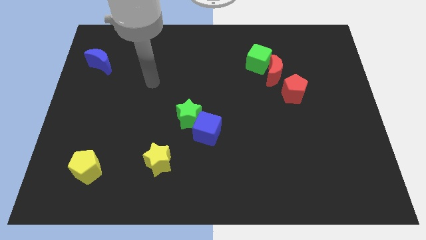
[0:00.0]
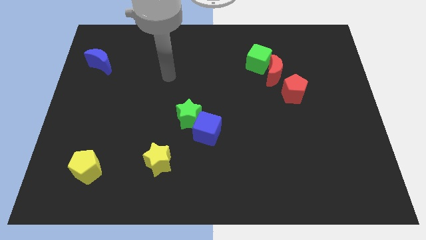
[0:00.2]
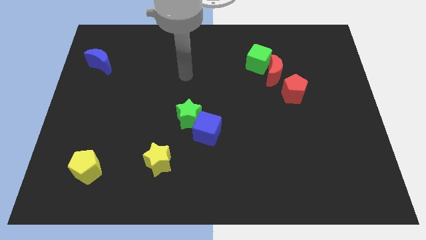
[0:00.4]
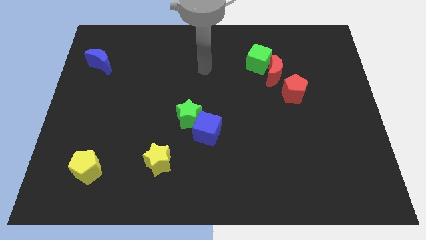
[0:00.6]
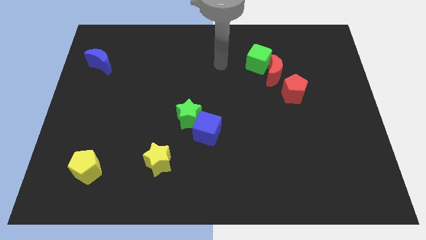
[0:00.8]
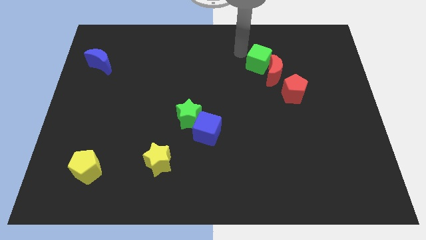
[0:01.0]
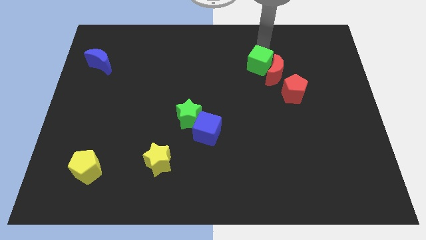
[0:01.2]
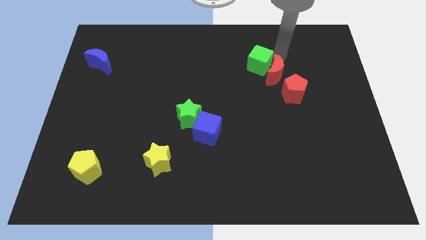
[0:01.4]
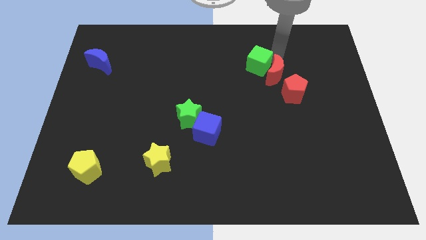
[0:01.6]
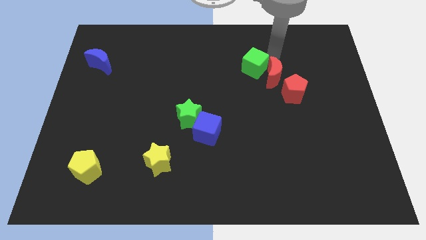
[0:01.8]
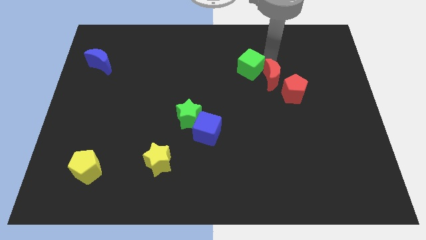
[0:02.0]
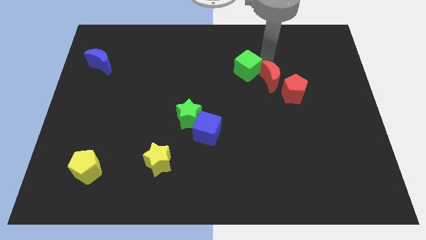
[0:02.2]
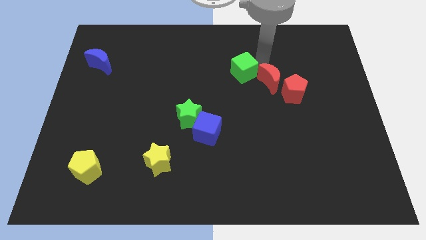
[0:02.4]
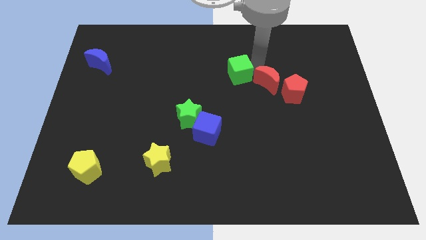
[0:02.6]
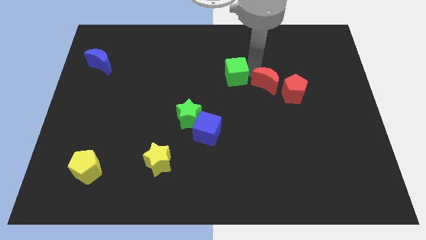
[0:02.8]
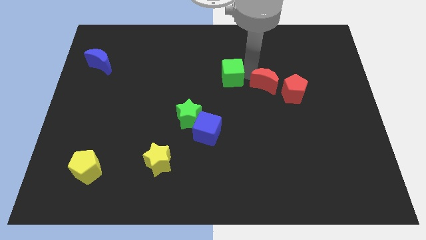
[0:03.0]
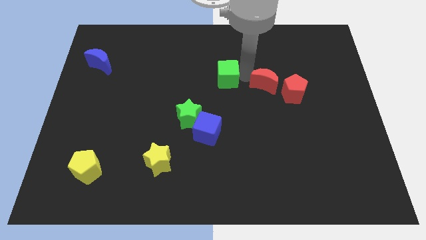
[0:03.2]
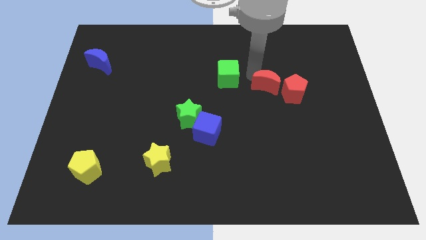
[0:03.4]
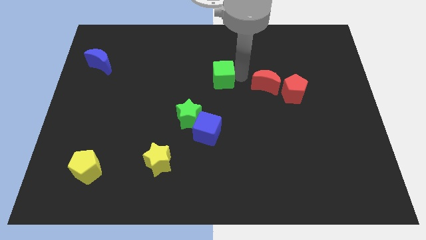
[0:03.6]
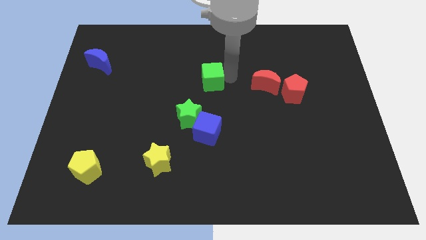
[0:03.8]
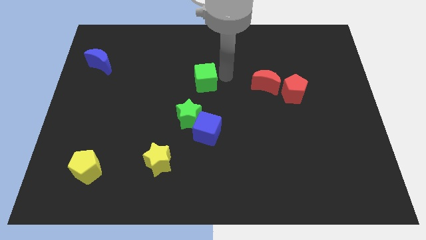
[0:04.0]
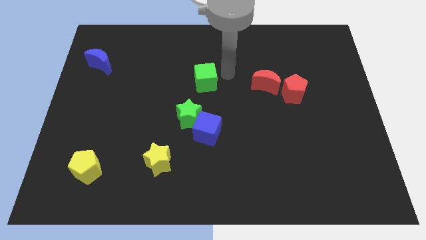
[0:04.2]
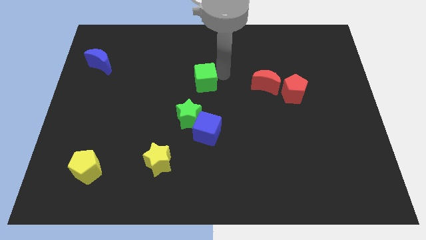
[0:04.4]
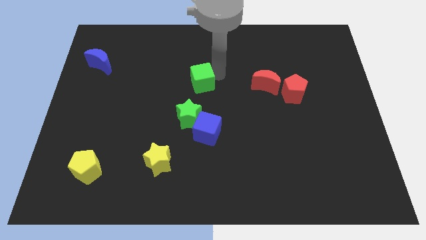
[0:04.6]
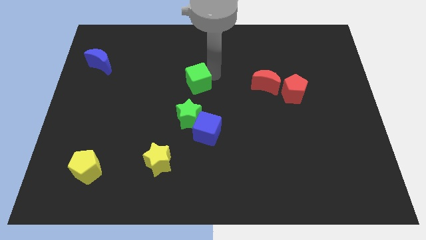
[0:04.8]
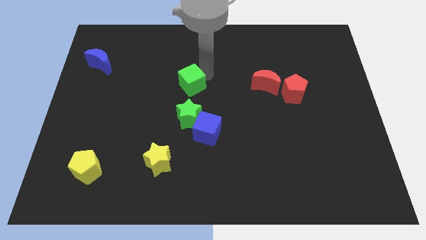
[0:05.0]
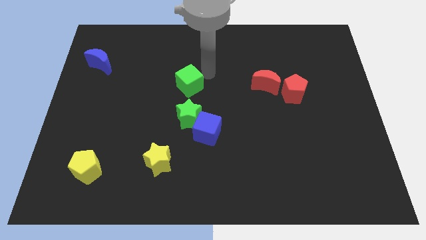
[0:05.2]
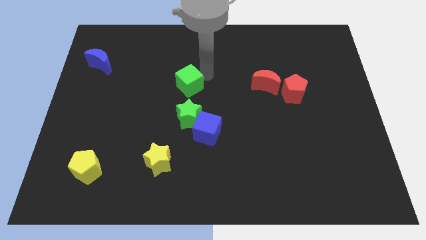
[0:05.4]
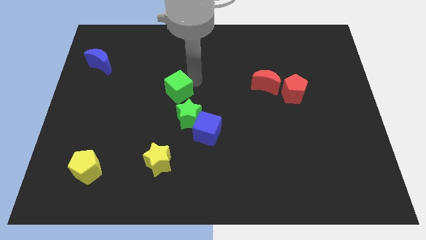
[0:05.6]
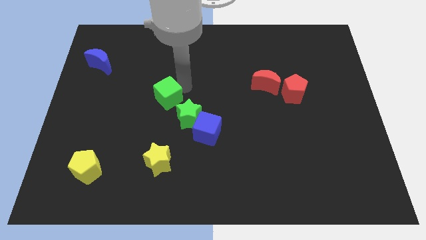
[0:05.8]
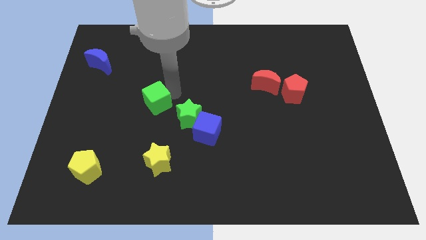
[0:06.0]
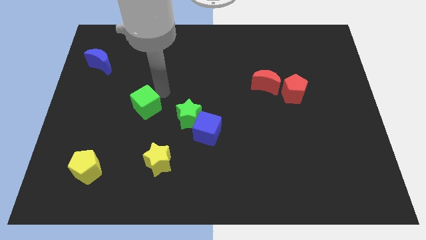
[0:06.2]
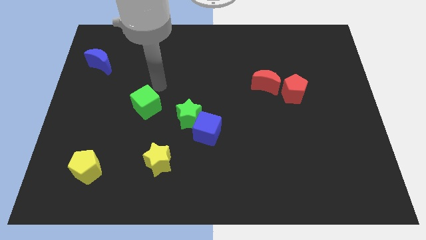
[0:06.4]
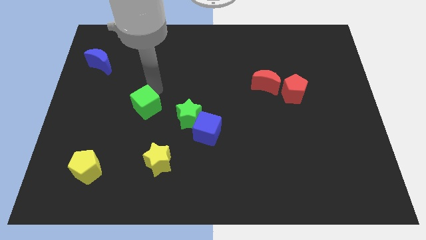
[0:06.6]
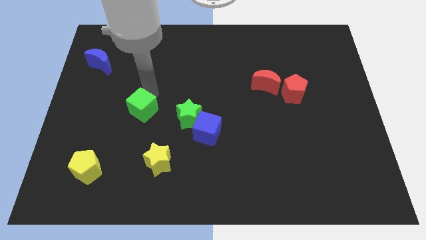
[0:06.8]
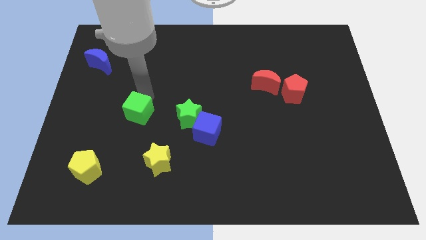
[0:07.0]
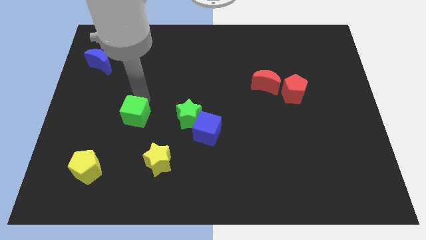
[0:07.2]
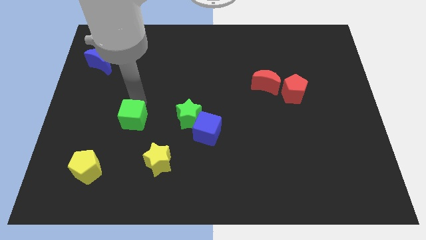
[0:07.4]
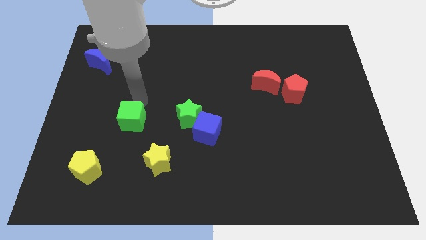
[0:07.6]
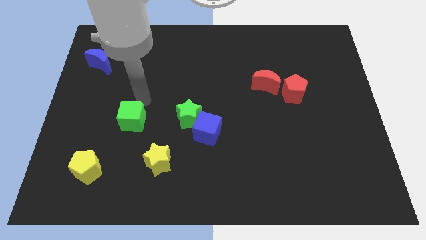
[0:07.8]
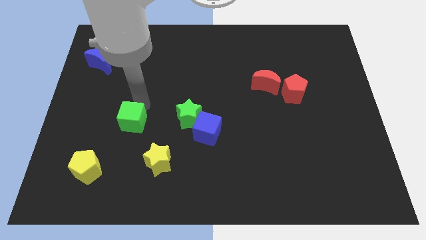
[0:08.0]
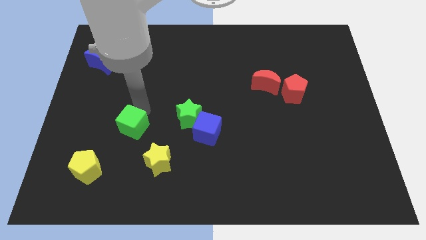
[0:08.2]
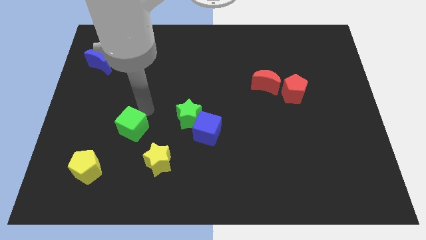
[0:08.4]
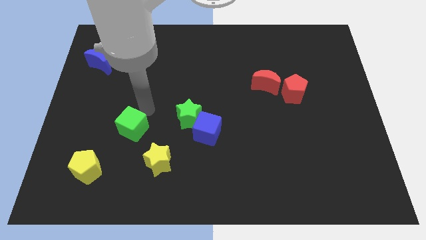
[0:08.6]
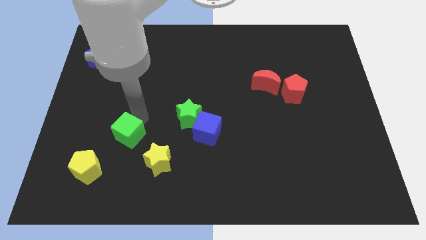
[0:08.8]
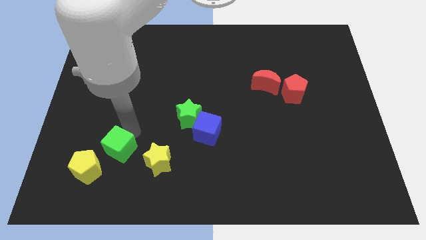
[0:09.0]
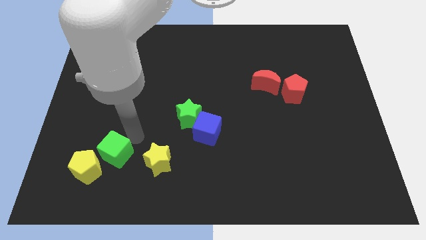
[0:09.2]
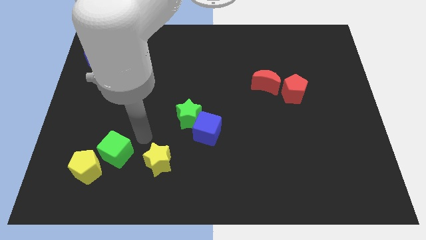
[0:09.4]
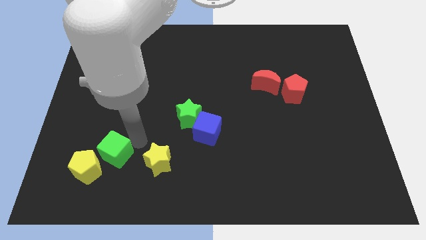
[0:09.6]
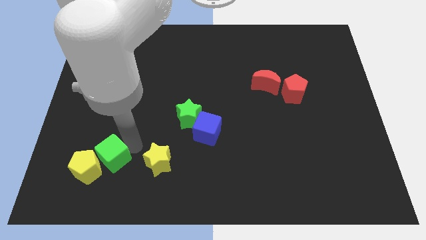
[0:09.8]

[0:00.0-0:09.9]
slide the green cube next to the yellow pentagon

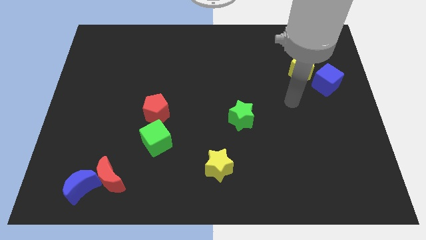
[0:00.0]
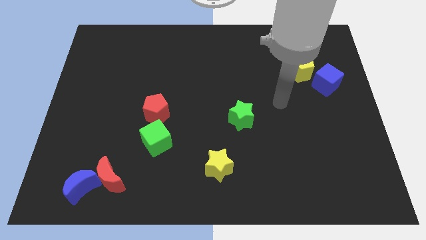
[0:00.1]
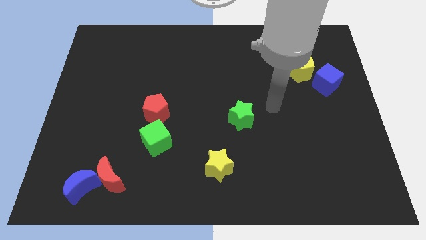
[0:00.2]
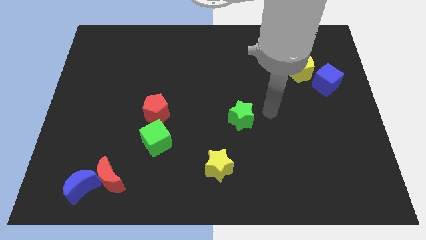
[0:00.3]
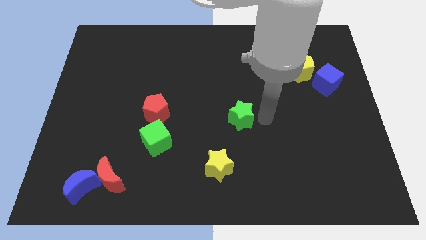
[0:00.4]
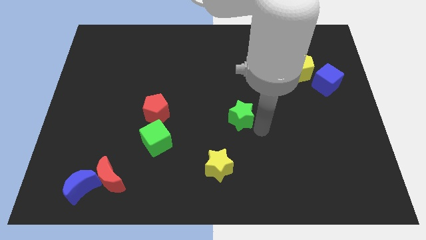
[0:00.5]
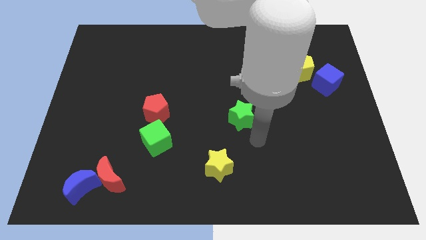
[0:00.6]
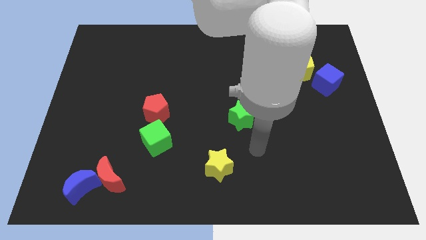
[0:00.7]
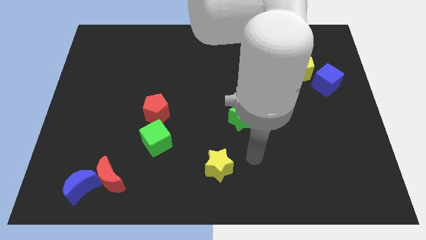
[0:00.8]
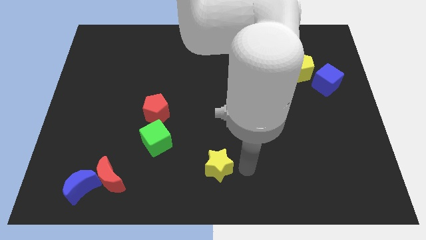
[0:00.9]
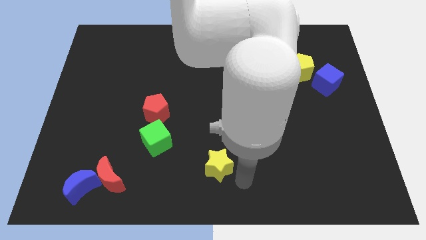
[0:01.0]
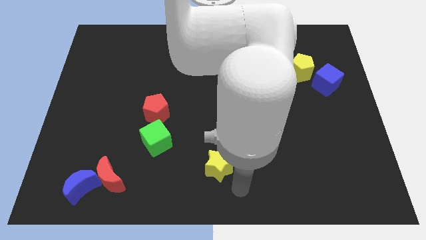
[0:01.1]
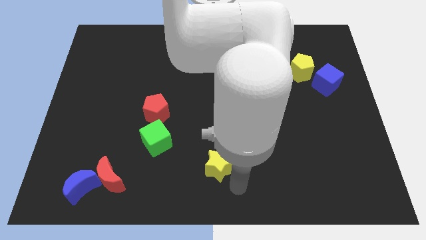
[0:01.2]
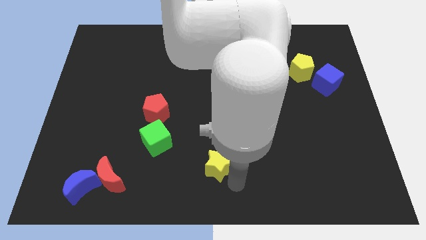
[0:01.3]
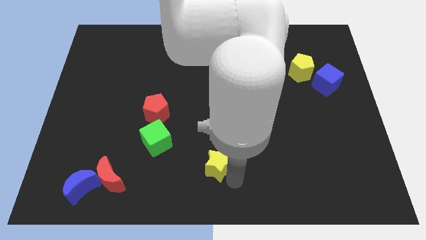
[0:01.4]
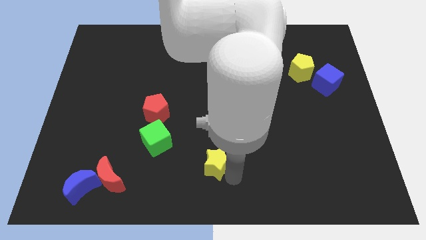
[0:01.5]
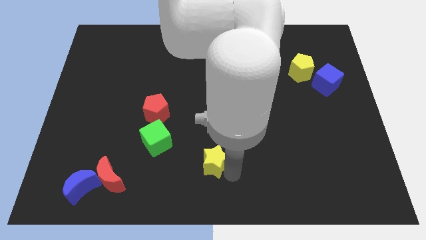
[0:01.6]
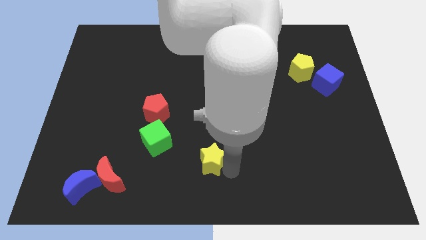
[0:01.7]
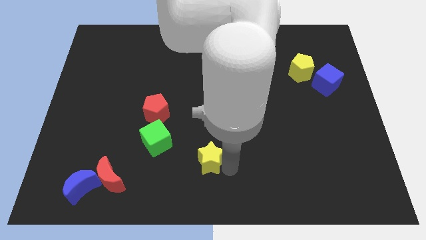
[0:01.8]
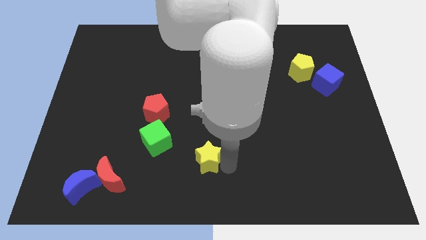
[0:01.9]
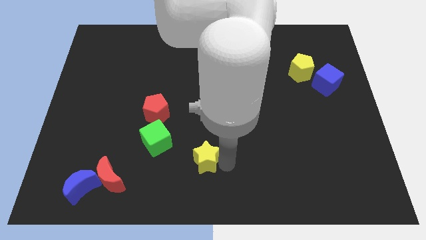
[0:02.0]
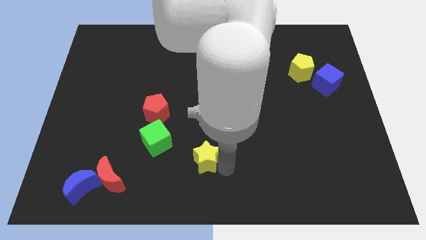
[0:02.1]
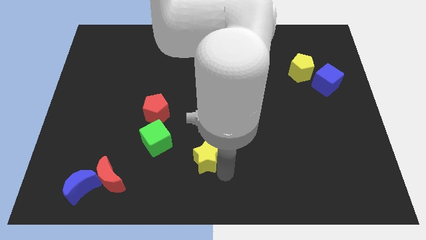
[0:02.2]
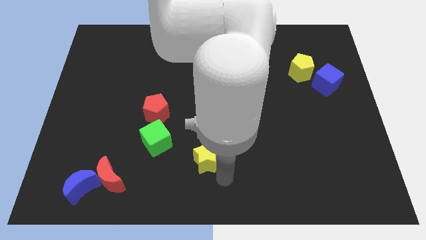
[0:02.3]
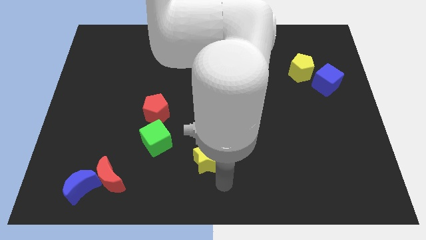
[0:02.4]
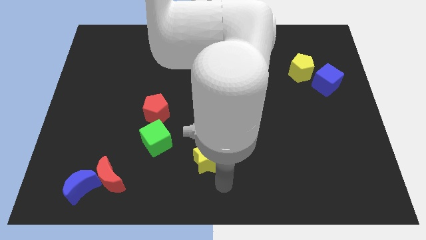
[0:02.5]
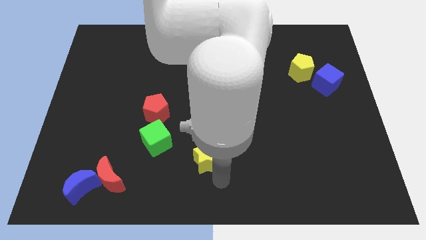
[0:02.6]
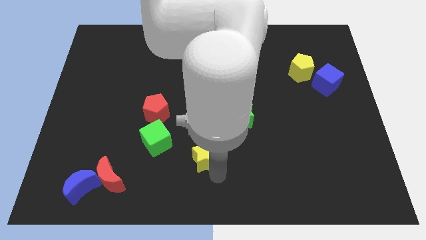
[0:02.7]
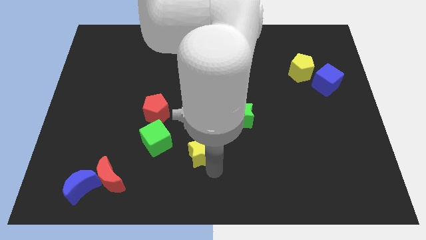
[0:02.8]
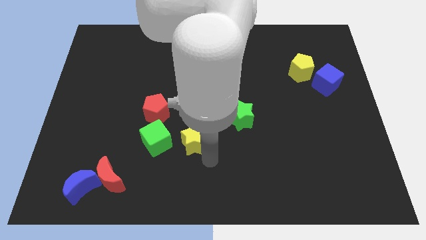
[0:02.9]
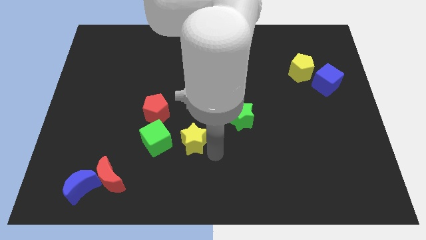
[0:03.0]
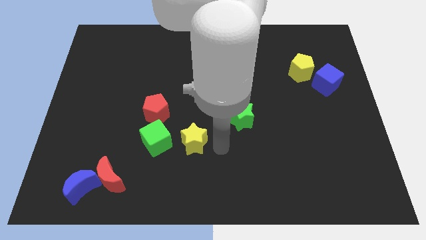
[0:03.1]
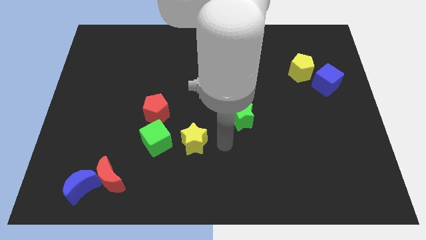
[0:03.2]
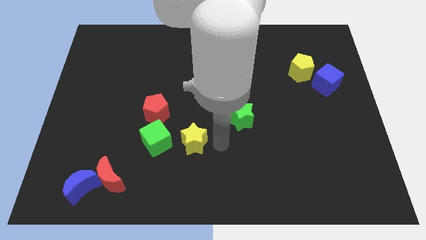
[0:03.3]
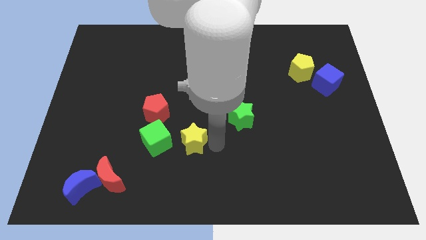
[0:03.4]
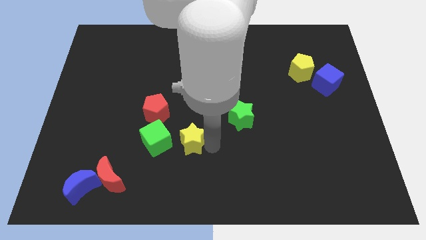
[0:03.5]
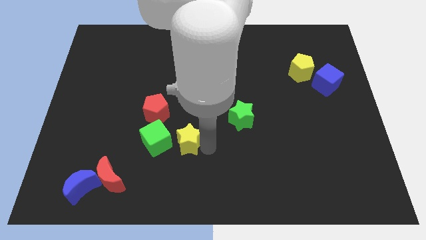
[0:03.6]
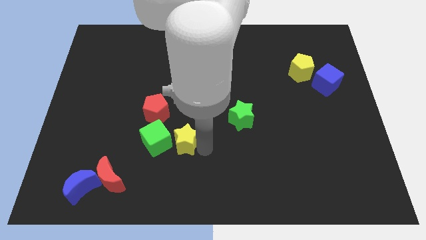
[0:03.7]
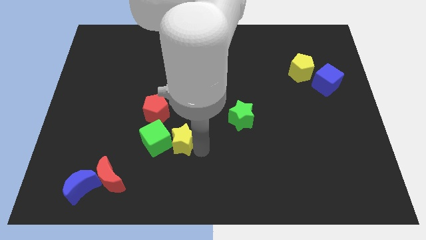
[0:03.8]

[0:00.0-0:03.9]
put the yellow star towards the green cube
